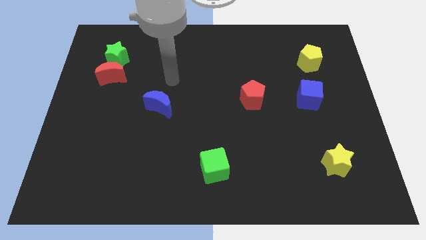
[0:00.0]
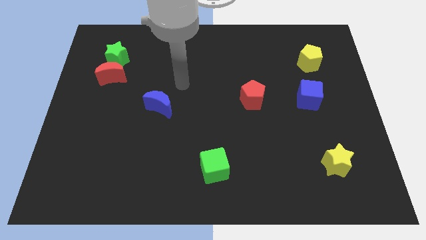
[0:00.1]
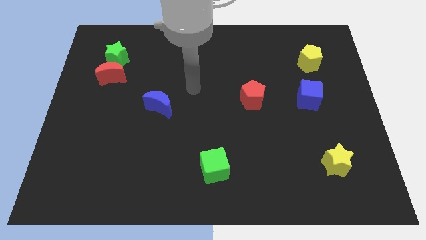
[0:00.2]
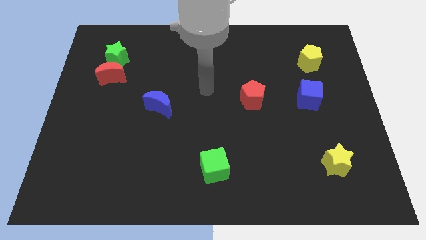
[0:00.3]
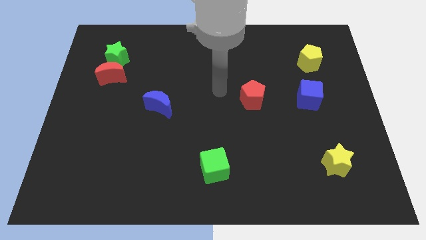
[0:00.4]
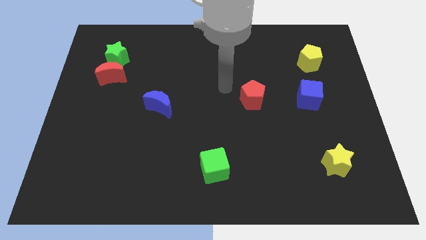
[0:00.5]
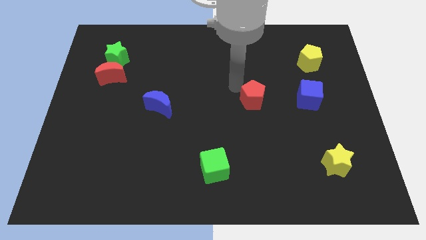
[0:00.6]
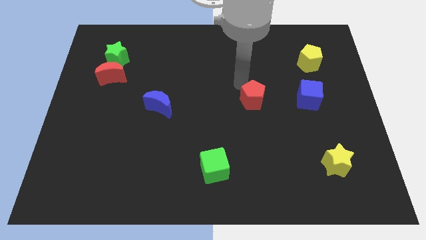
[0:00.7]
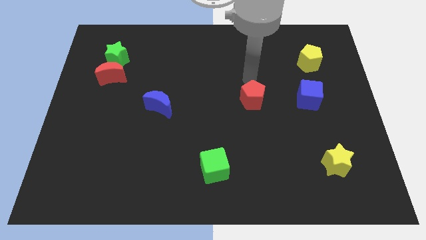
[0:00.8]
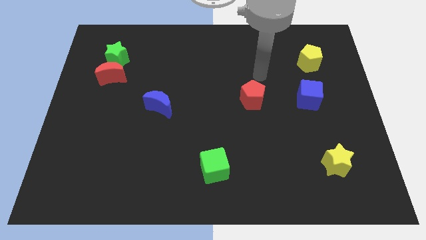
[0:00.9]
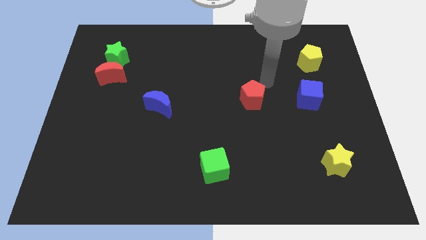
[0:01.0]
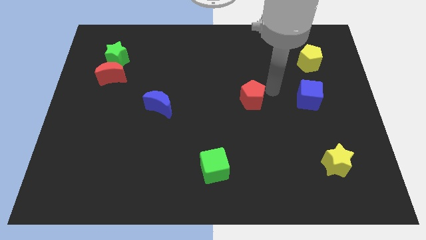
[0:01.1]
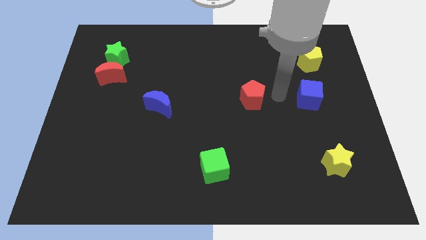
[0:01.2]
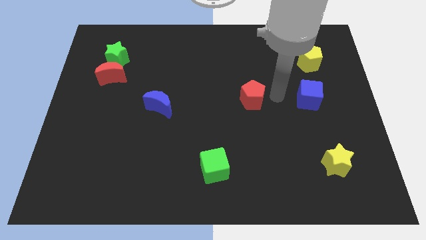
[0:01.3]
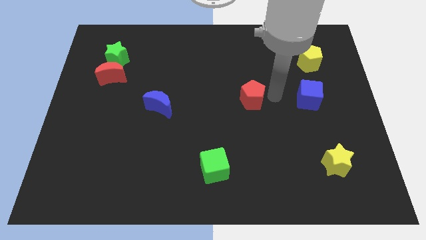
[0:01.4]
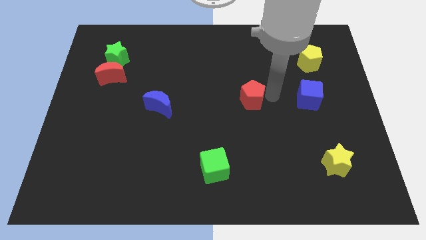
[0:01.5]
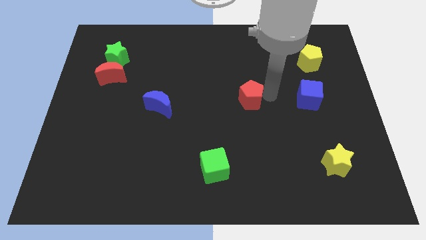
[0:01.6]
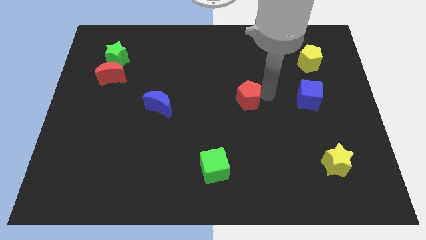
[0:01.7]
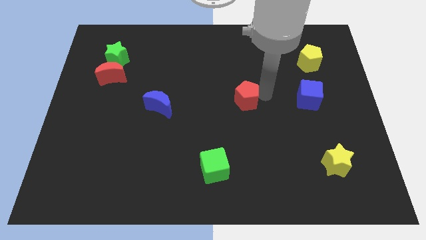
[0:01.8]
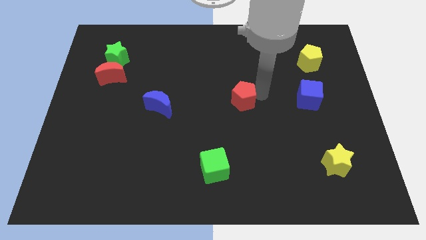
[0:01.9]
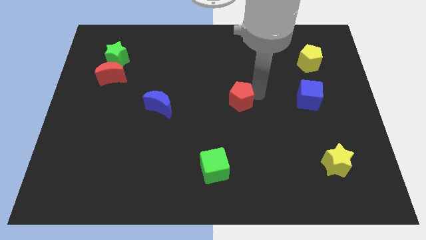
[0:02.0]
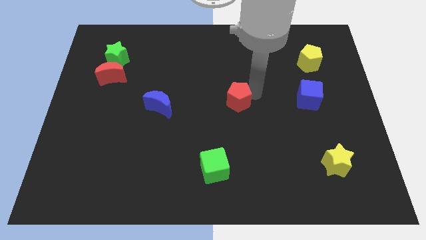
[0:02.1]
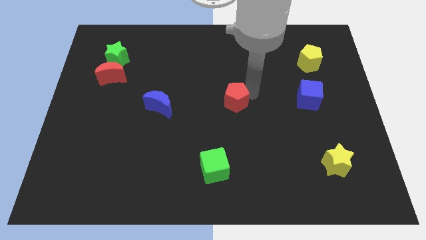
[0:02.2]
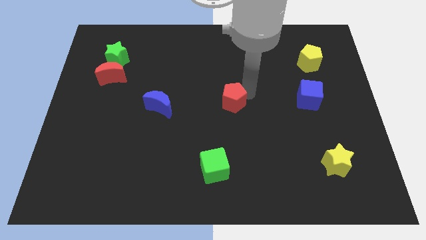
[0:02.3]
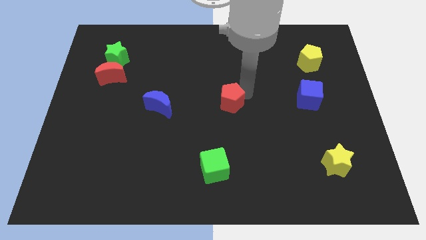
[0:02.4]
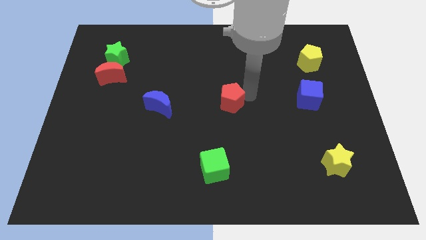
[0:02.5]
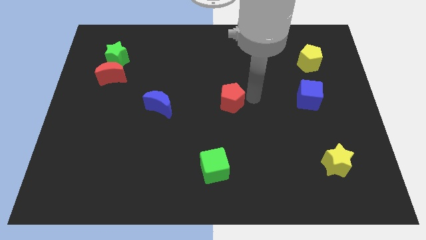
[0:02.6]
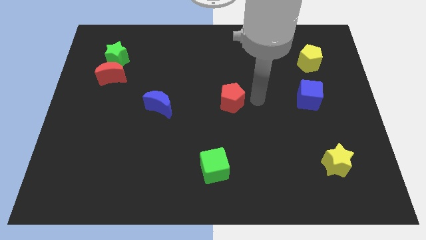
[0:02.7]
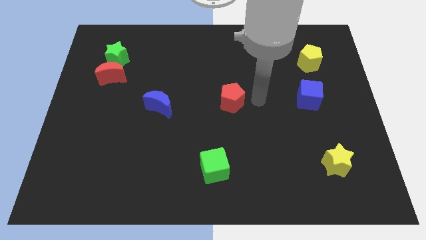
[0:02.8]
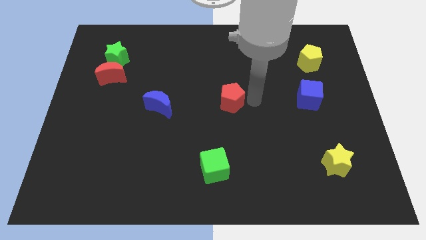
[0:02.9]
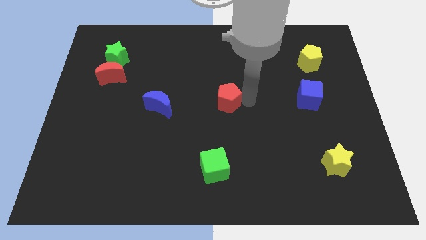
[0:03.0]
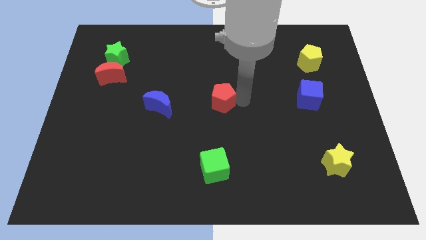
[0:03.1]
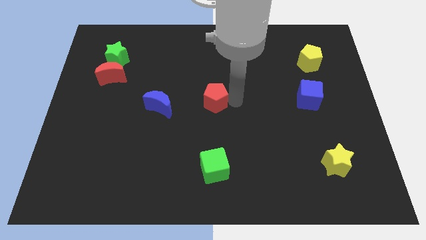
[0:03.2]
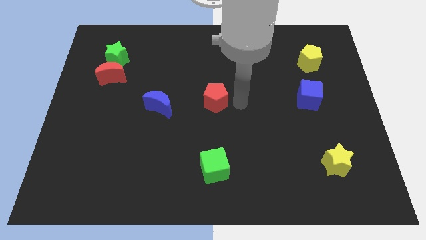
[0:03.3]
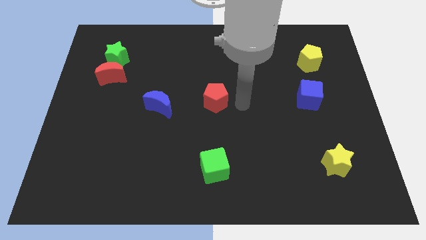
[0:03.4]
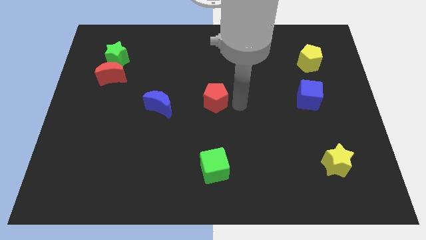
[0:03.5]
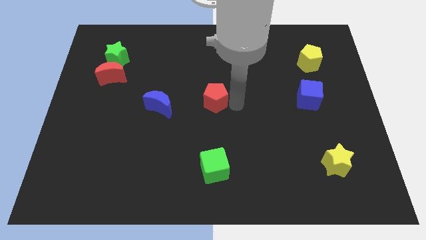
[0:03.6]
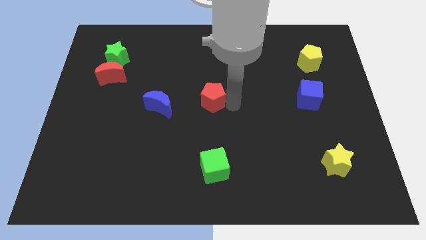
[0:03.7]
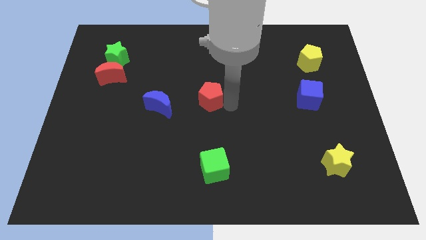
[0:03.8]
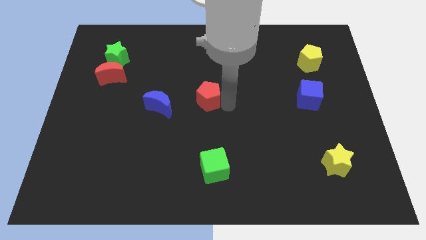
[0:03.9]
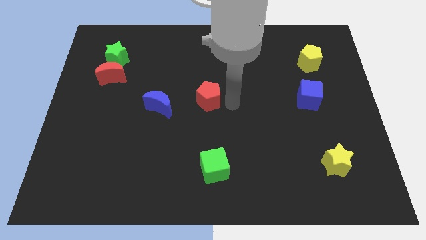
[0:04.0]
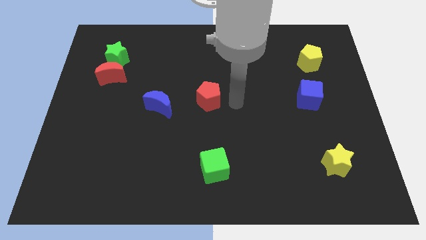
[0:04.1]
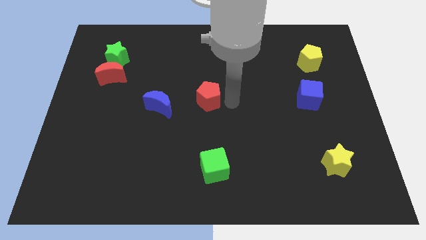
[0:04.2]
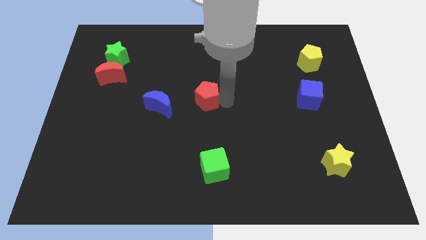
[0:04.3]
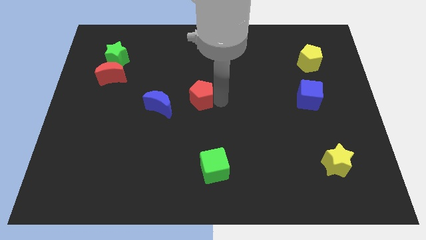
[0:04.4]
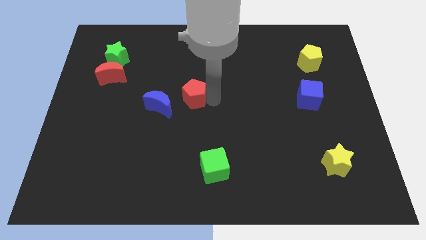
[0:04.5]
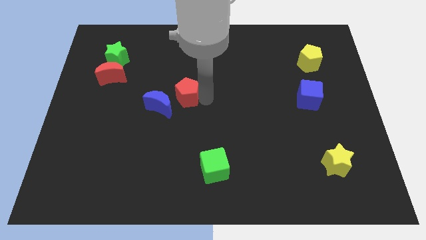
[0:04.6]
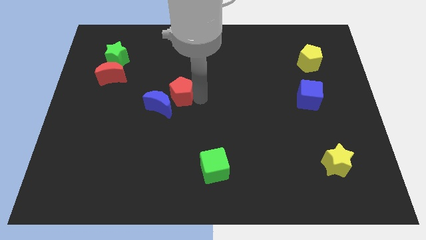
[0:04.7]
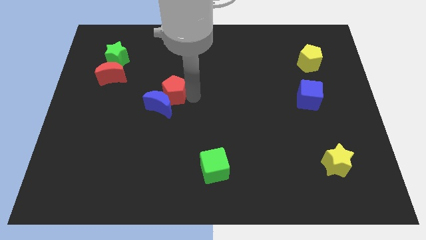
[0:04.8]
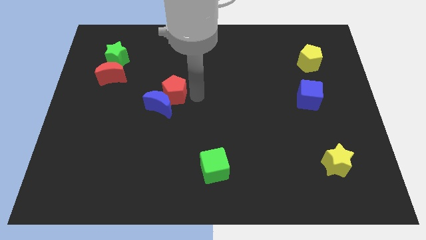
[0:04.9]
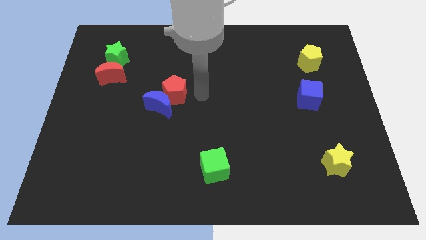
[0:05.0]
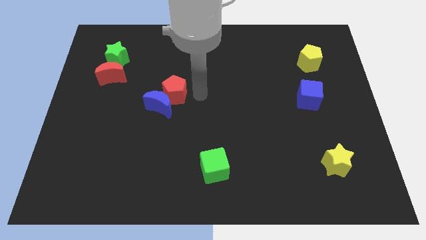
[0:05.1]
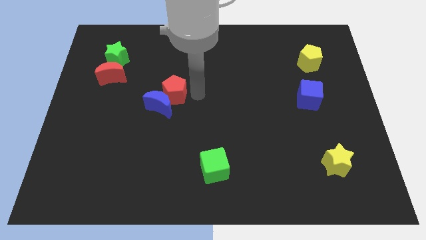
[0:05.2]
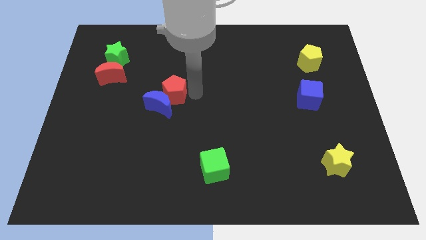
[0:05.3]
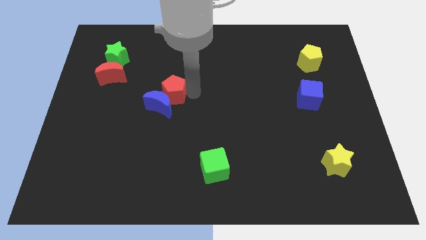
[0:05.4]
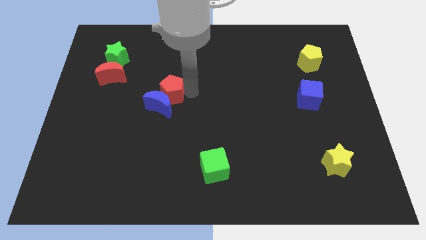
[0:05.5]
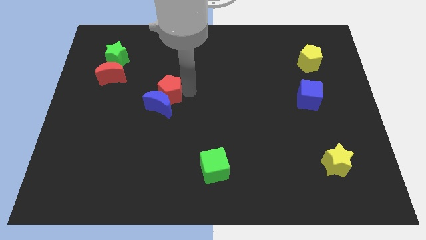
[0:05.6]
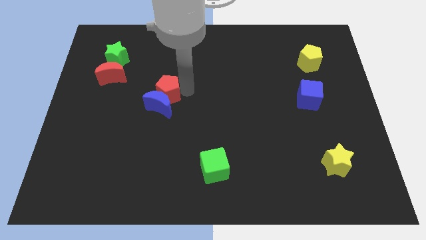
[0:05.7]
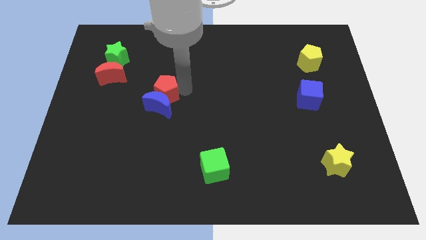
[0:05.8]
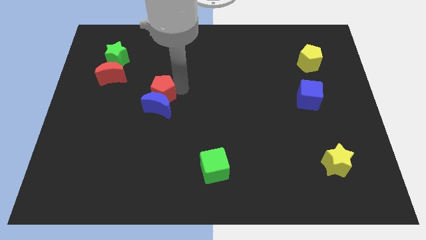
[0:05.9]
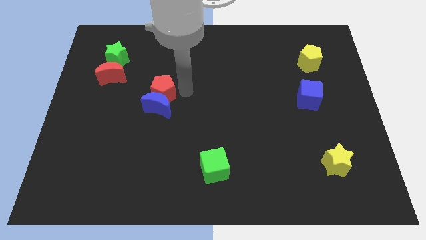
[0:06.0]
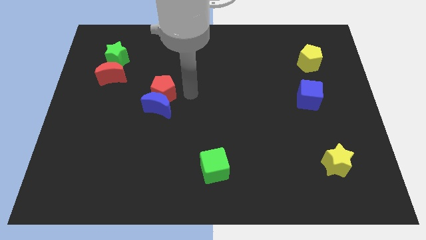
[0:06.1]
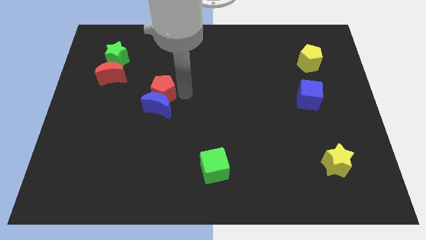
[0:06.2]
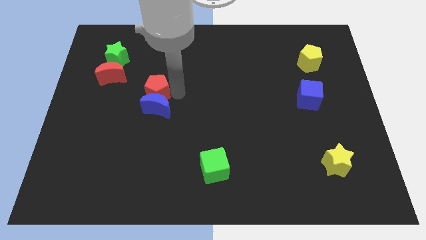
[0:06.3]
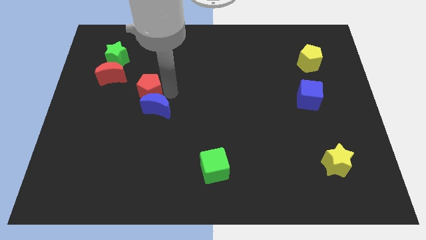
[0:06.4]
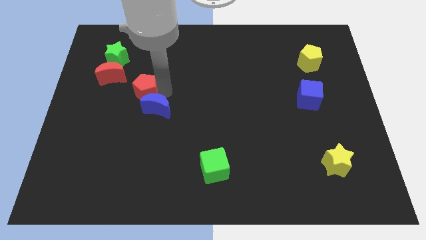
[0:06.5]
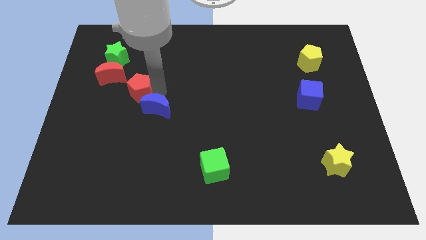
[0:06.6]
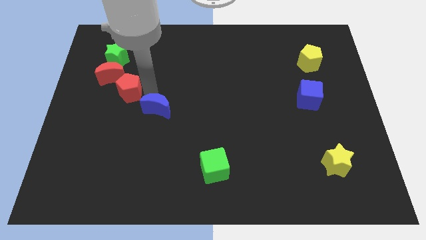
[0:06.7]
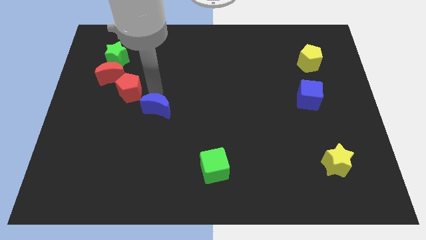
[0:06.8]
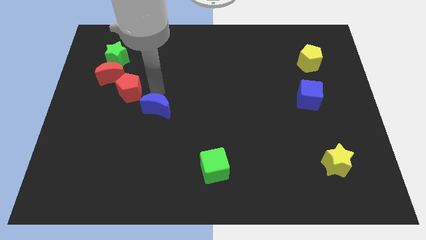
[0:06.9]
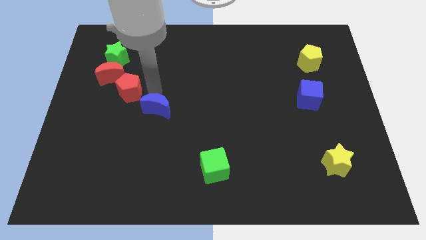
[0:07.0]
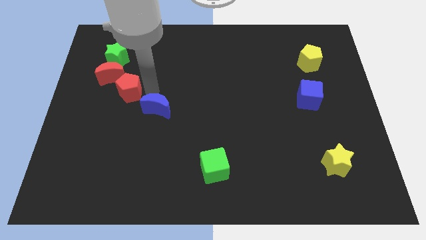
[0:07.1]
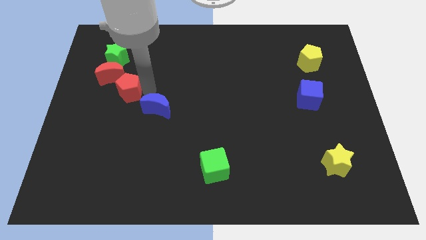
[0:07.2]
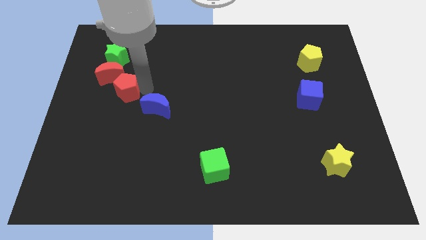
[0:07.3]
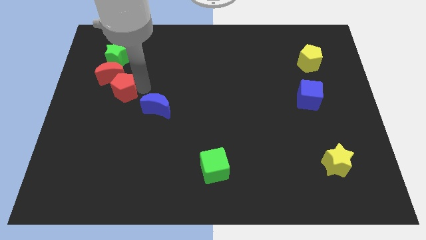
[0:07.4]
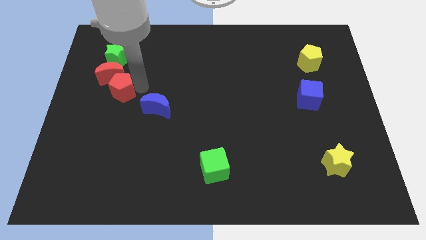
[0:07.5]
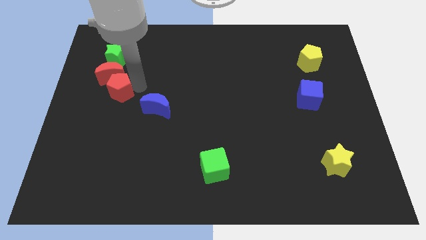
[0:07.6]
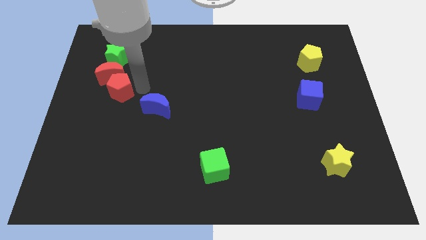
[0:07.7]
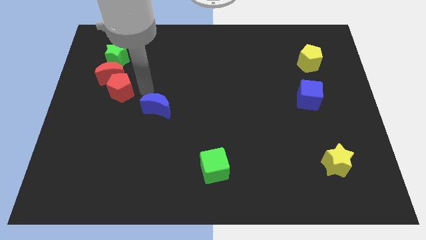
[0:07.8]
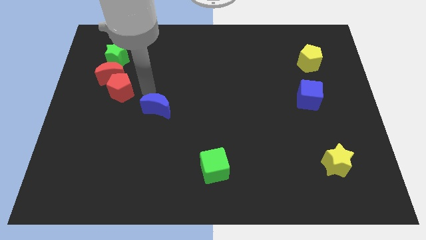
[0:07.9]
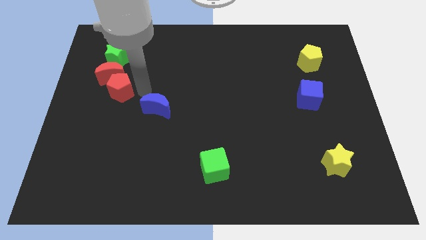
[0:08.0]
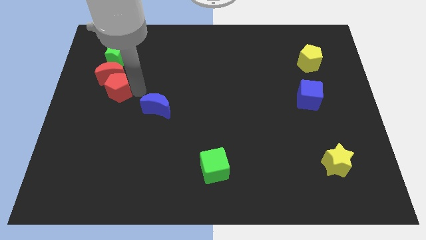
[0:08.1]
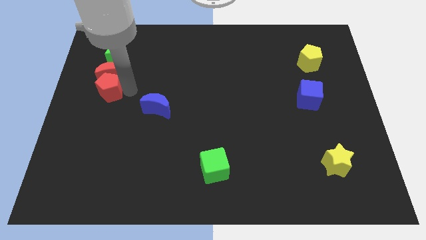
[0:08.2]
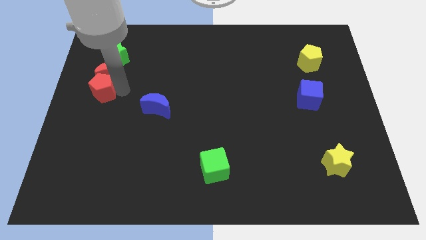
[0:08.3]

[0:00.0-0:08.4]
move the red pentagon to the left side of the board
